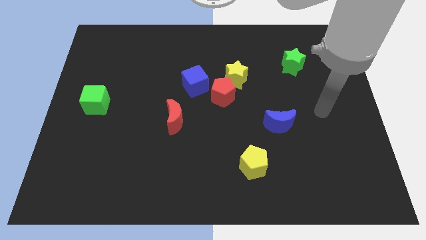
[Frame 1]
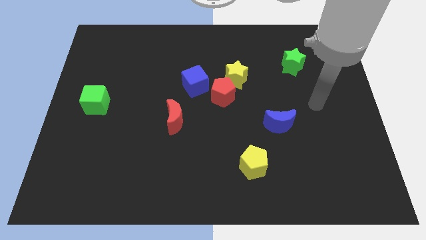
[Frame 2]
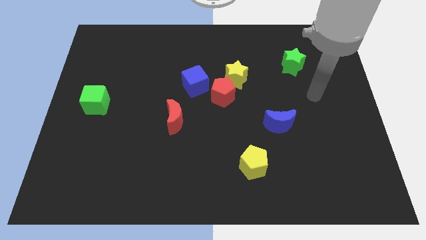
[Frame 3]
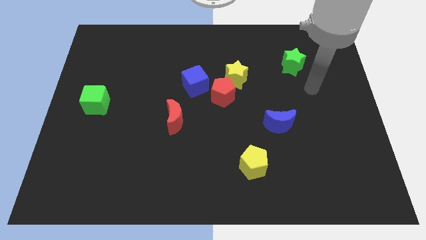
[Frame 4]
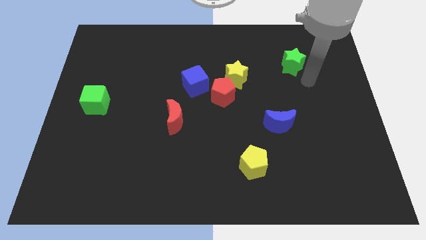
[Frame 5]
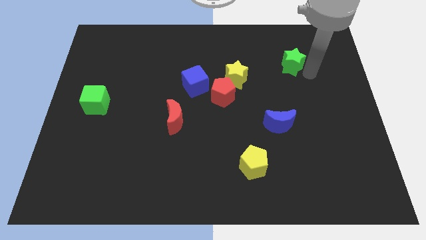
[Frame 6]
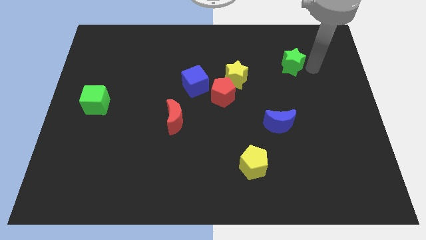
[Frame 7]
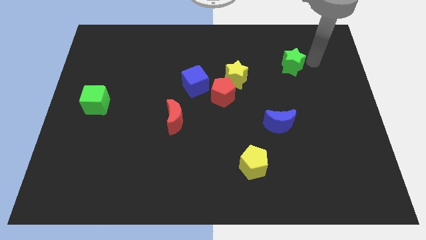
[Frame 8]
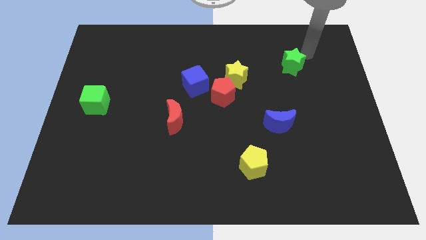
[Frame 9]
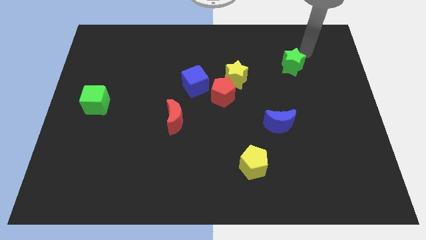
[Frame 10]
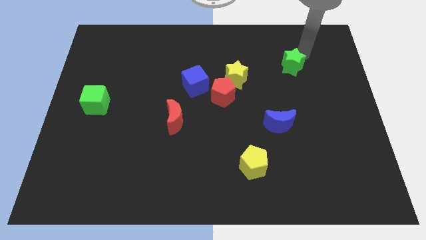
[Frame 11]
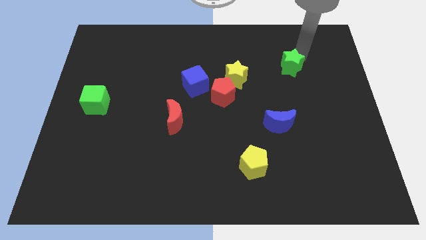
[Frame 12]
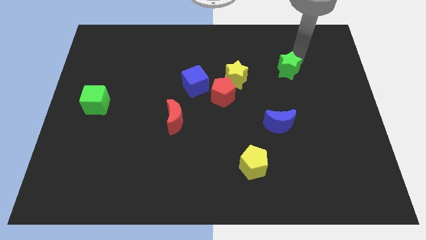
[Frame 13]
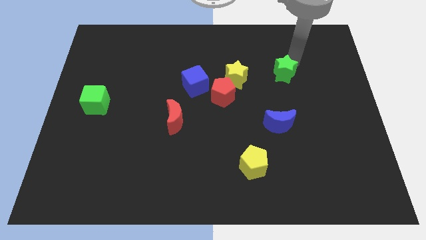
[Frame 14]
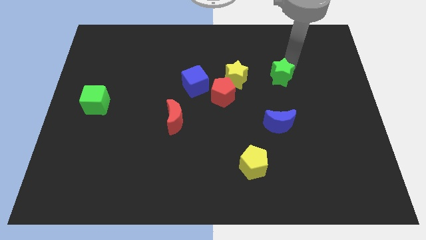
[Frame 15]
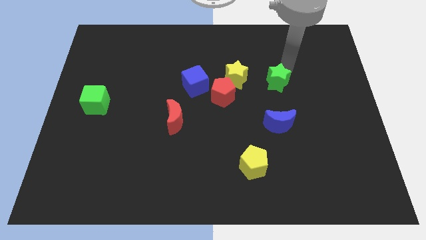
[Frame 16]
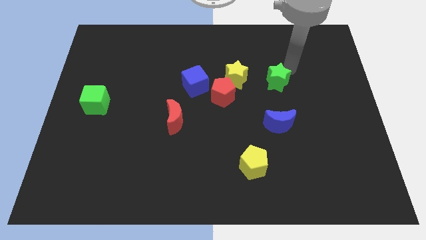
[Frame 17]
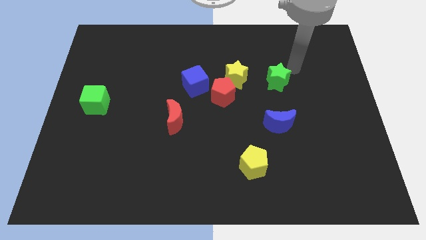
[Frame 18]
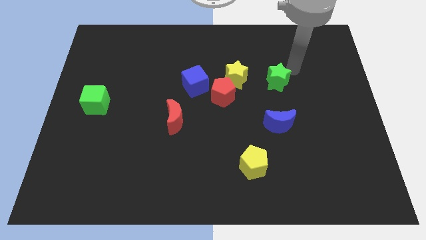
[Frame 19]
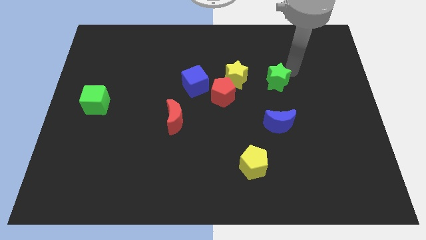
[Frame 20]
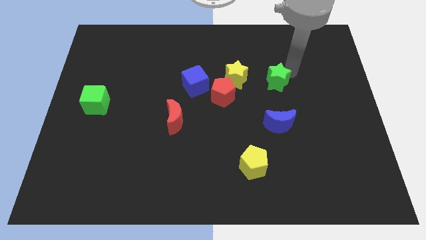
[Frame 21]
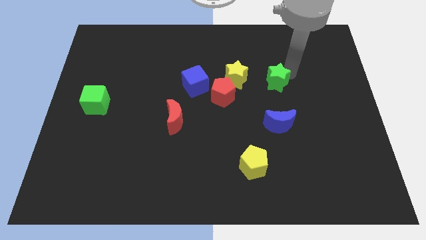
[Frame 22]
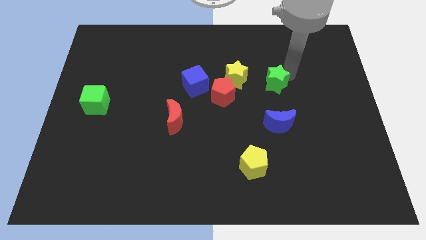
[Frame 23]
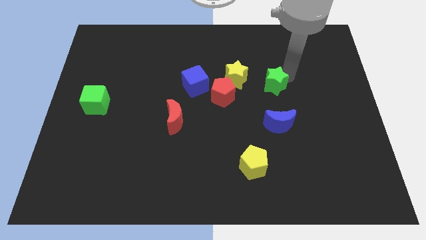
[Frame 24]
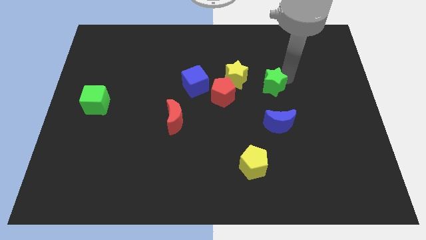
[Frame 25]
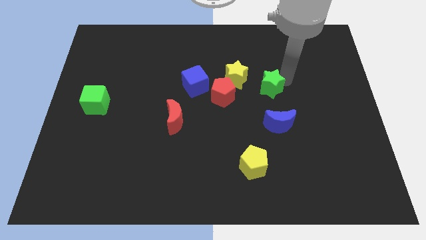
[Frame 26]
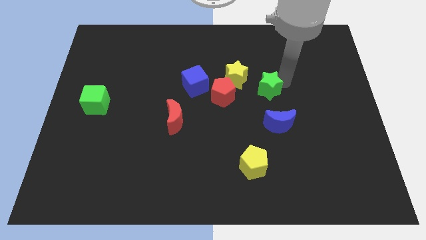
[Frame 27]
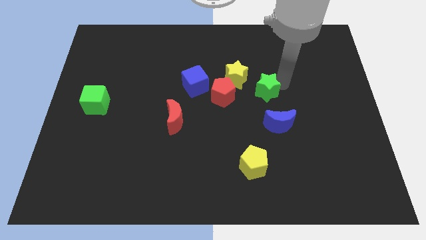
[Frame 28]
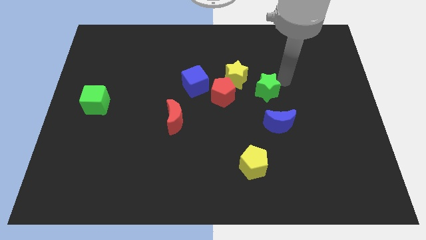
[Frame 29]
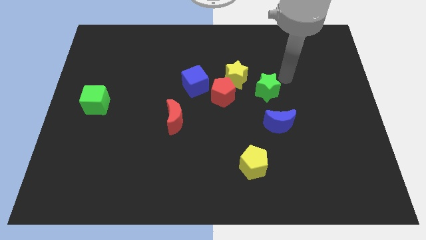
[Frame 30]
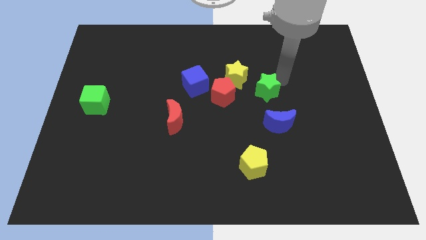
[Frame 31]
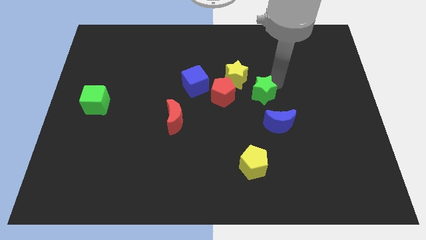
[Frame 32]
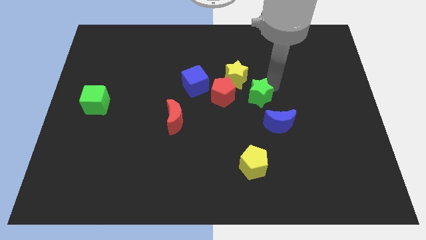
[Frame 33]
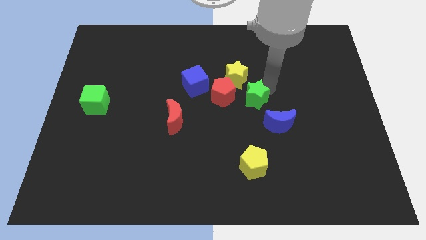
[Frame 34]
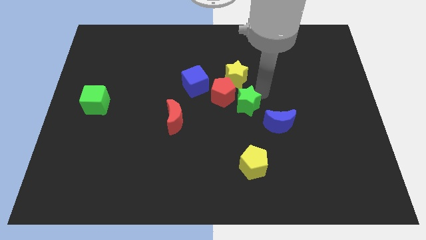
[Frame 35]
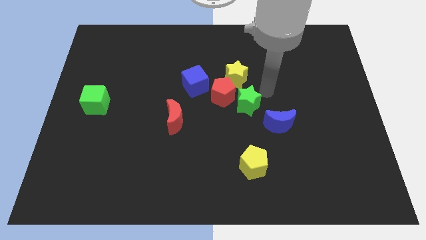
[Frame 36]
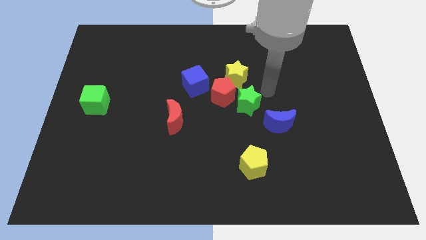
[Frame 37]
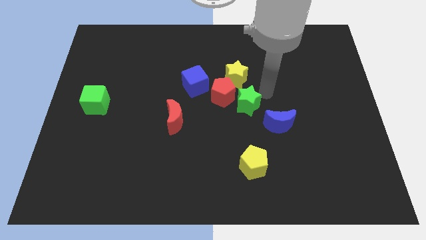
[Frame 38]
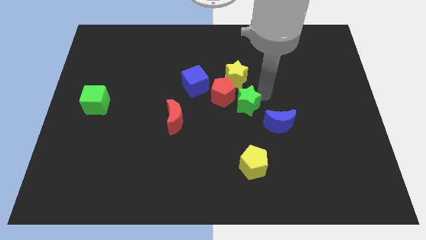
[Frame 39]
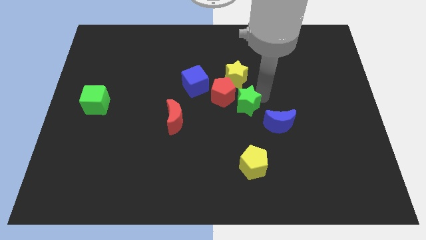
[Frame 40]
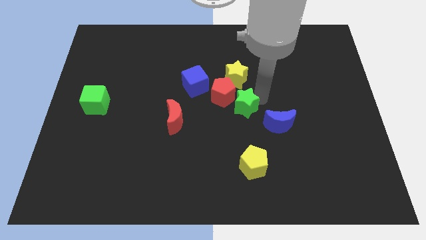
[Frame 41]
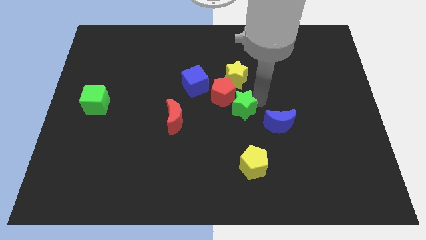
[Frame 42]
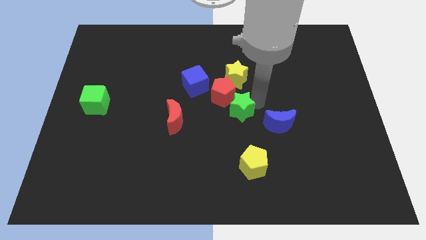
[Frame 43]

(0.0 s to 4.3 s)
move the green star down and then left

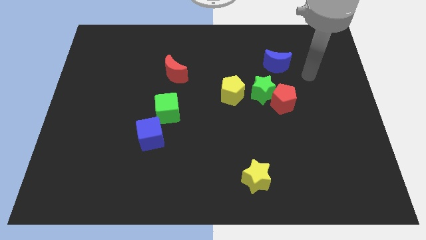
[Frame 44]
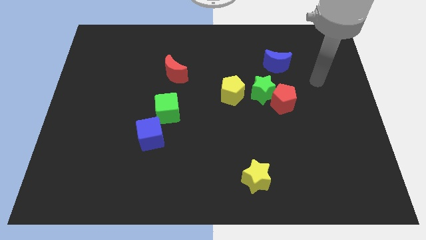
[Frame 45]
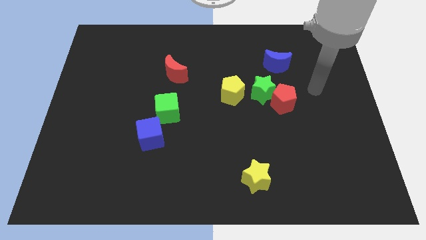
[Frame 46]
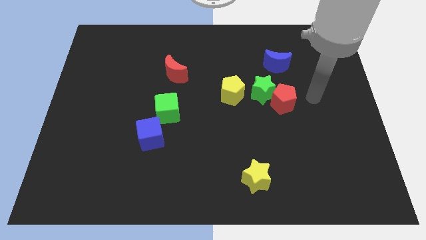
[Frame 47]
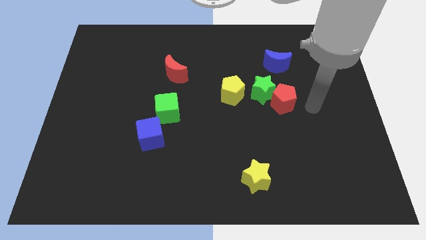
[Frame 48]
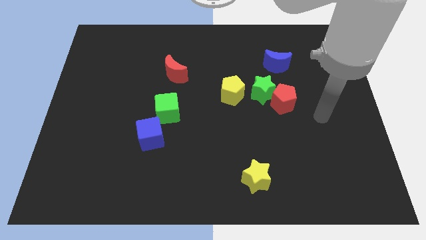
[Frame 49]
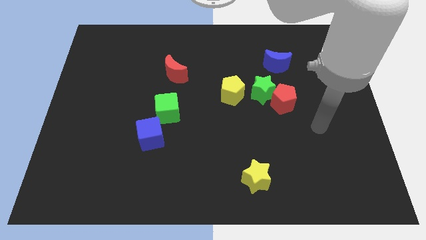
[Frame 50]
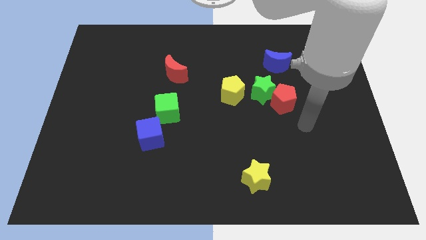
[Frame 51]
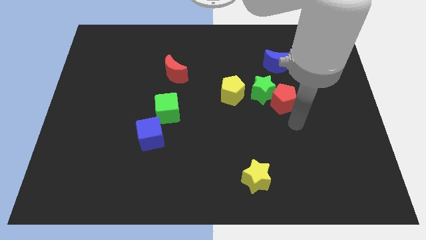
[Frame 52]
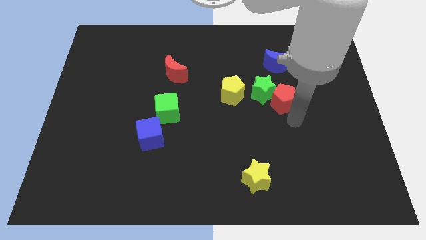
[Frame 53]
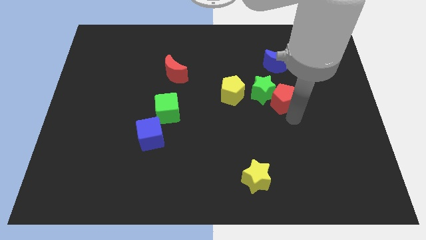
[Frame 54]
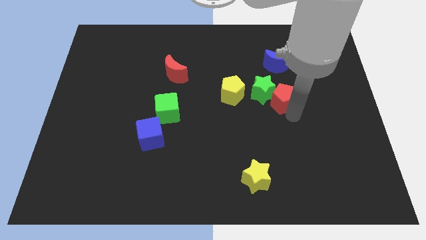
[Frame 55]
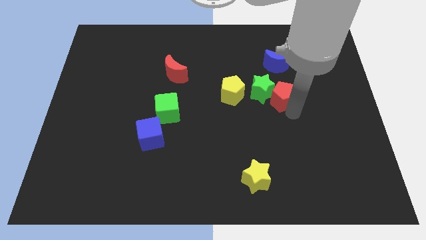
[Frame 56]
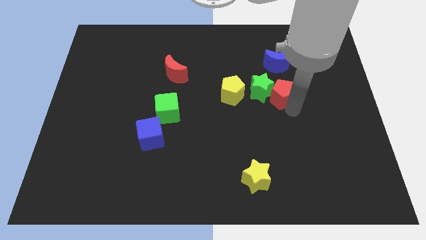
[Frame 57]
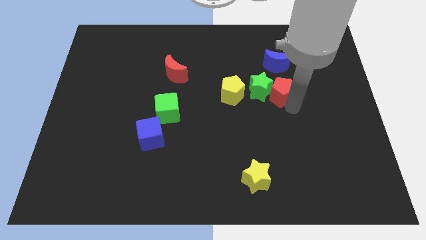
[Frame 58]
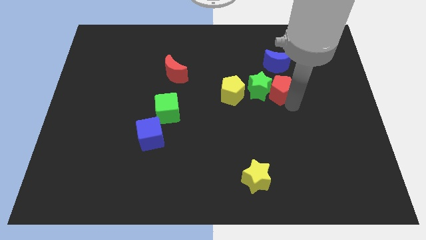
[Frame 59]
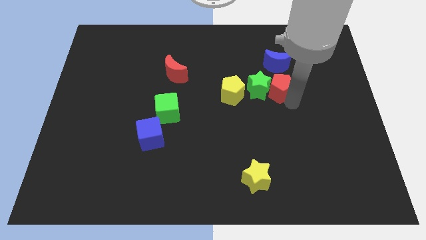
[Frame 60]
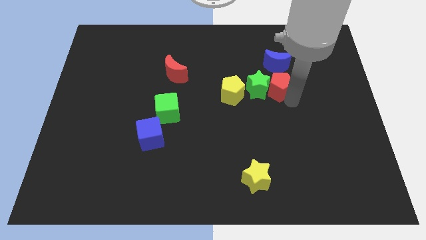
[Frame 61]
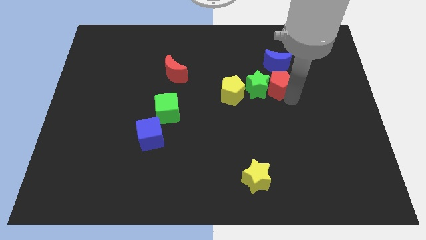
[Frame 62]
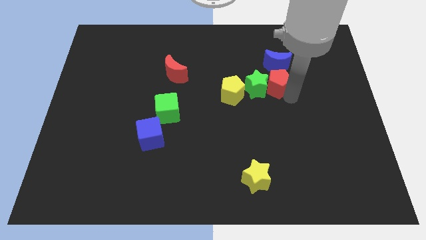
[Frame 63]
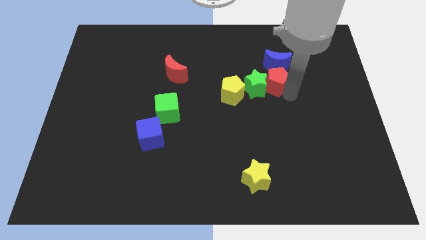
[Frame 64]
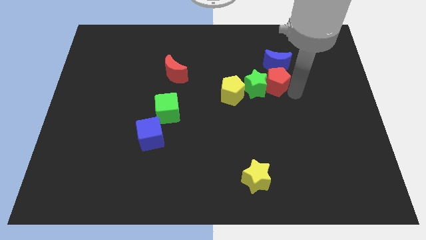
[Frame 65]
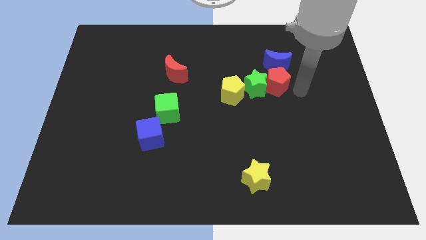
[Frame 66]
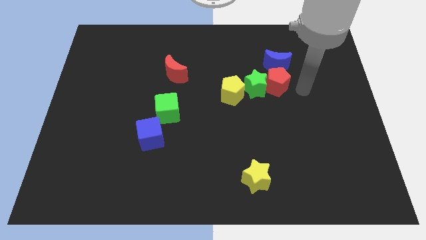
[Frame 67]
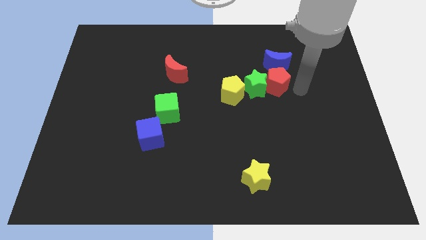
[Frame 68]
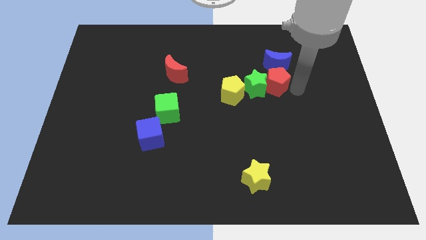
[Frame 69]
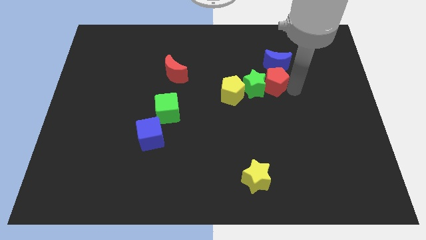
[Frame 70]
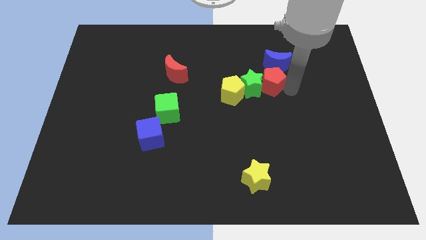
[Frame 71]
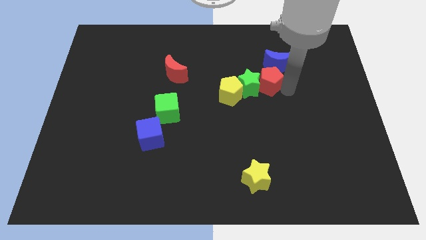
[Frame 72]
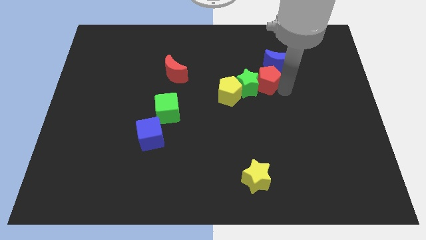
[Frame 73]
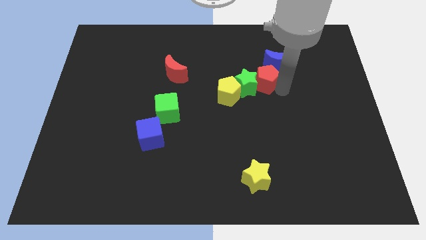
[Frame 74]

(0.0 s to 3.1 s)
push the red pentagon up and then to the left a bit

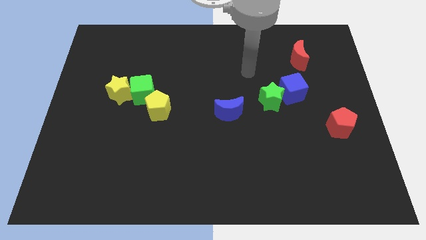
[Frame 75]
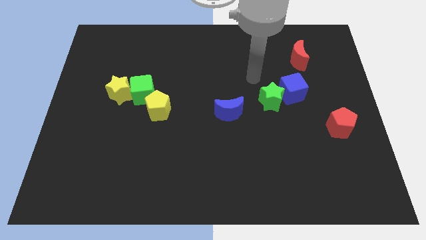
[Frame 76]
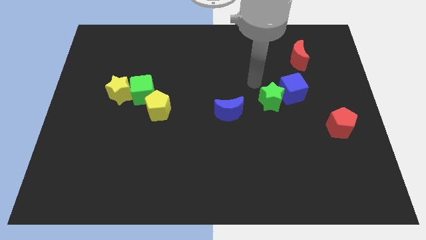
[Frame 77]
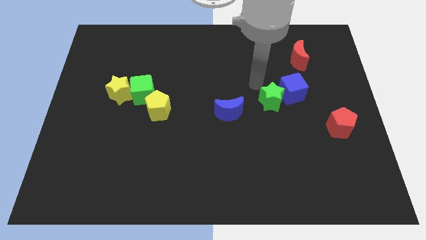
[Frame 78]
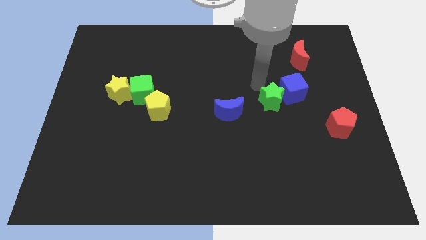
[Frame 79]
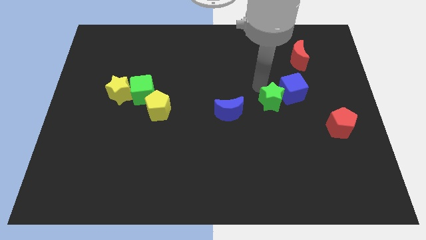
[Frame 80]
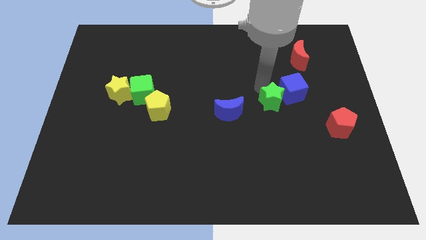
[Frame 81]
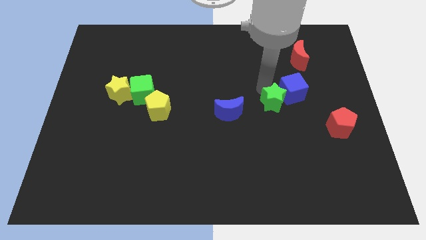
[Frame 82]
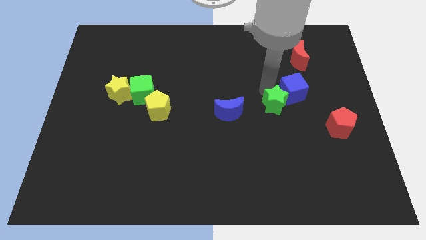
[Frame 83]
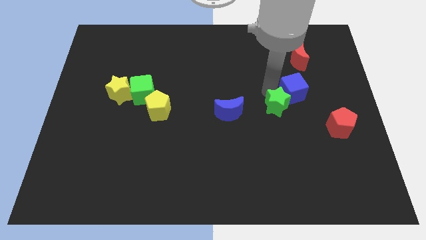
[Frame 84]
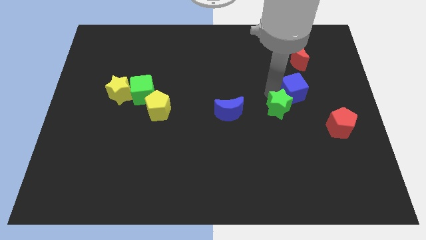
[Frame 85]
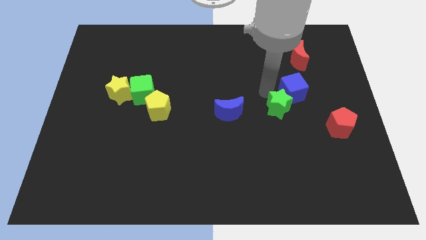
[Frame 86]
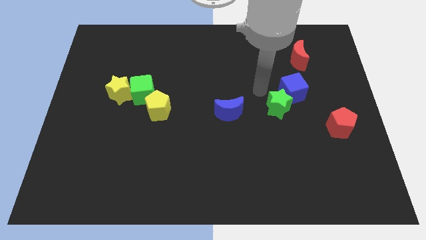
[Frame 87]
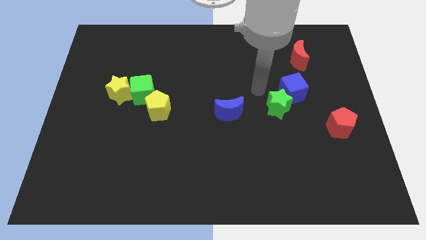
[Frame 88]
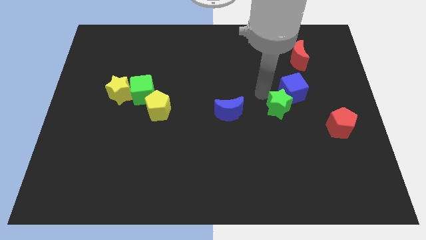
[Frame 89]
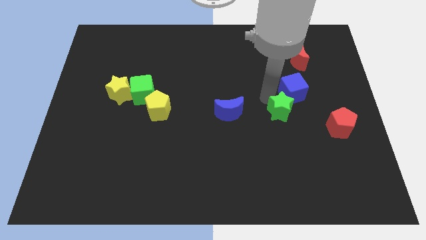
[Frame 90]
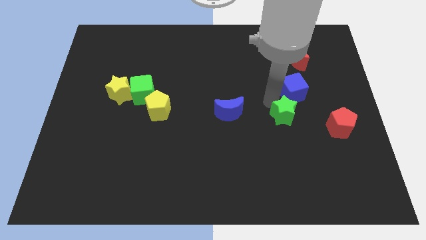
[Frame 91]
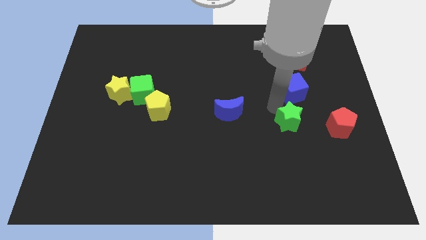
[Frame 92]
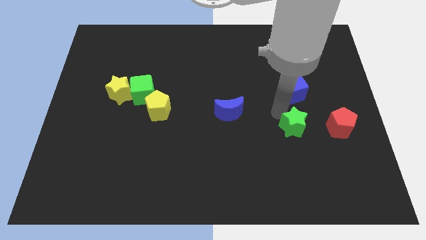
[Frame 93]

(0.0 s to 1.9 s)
slightly slide the green star down and right diagonally
